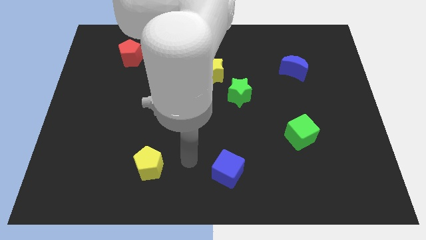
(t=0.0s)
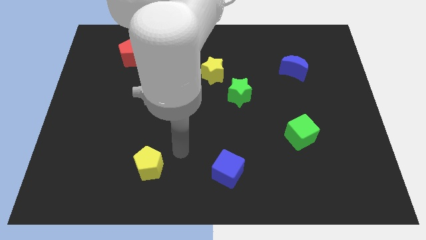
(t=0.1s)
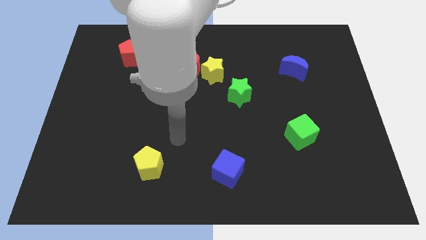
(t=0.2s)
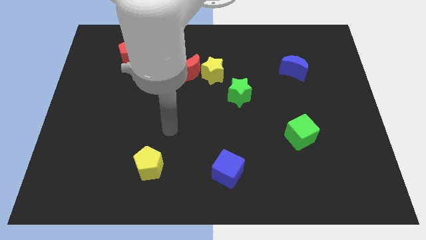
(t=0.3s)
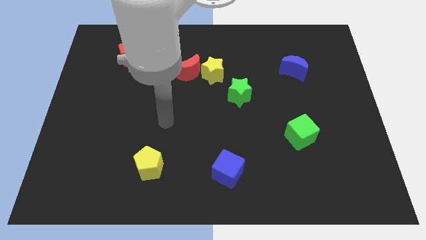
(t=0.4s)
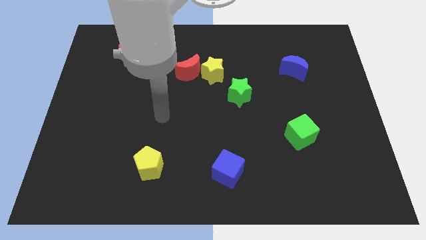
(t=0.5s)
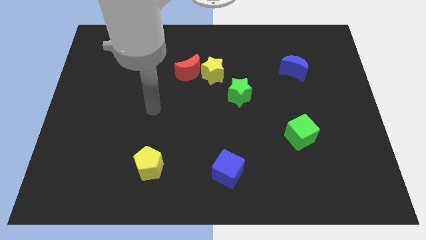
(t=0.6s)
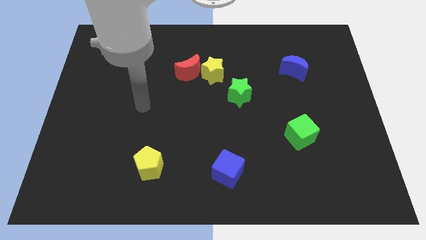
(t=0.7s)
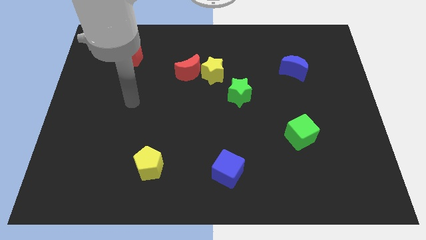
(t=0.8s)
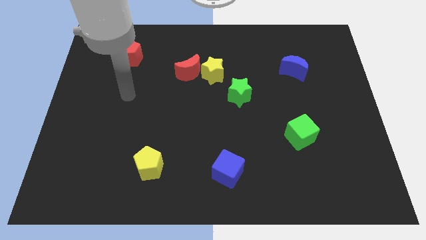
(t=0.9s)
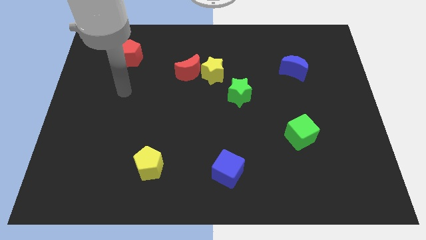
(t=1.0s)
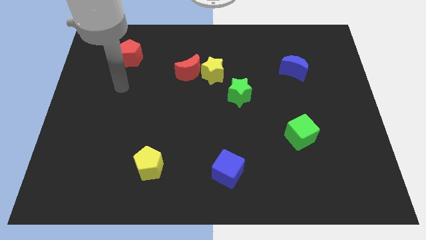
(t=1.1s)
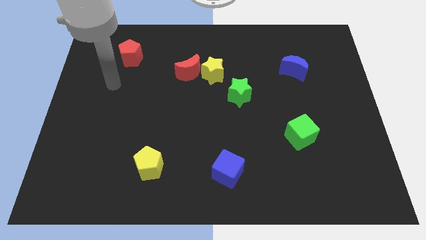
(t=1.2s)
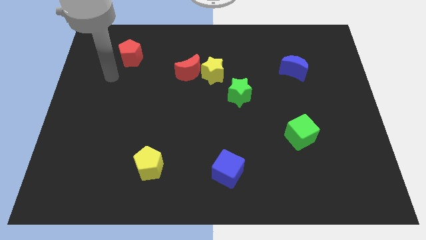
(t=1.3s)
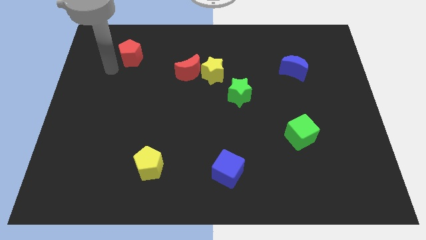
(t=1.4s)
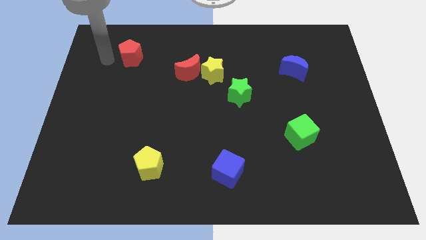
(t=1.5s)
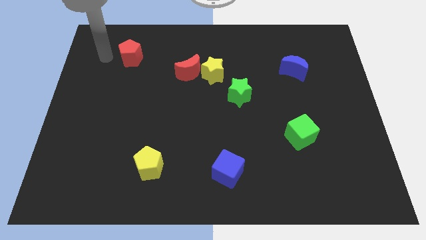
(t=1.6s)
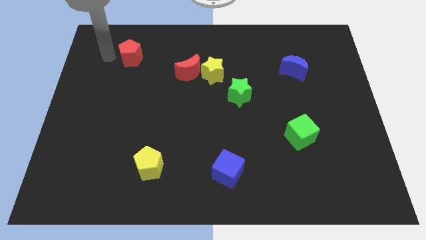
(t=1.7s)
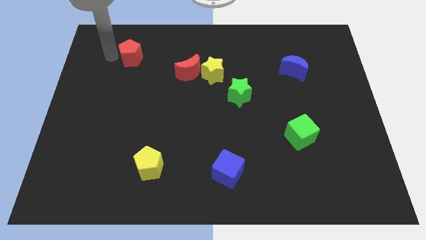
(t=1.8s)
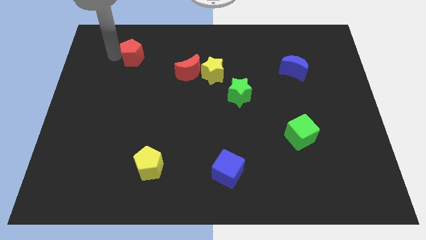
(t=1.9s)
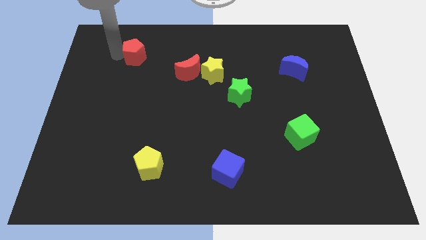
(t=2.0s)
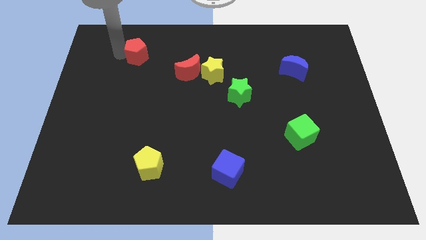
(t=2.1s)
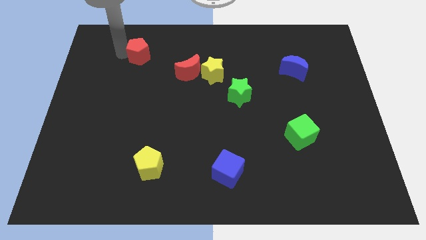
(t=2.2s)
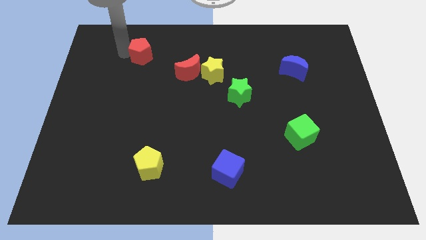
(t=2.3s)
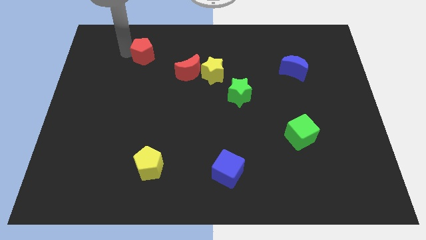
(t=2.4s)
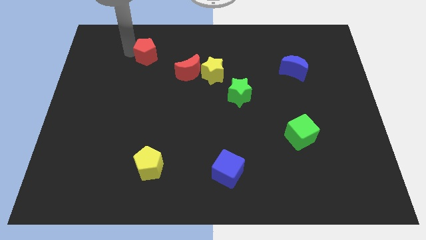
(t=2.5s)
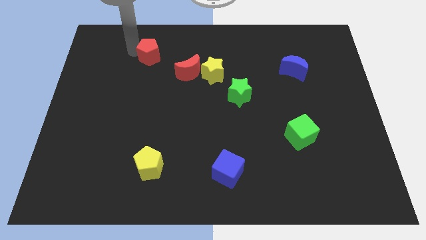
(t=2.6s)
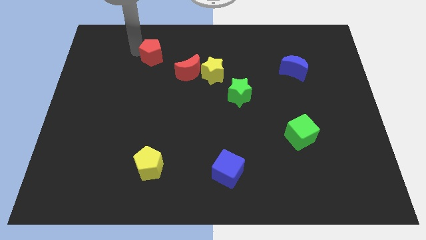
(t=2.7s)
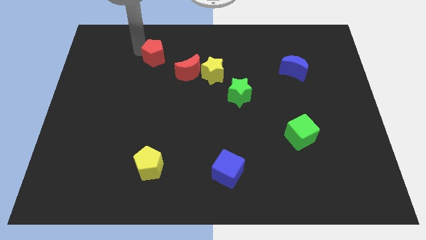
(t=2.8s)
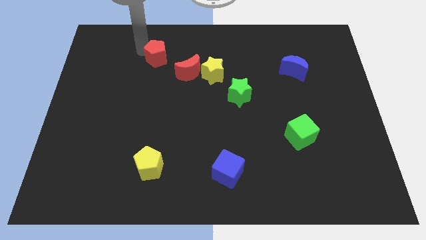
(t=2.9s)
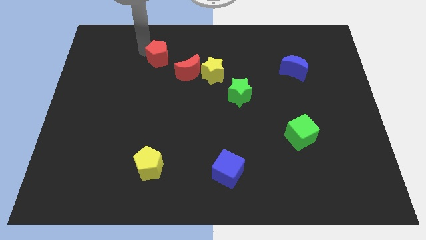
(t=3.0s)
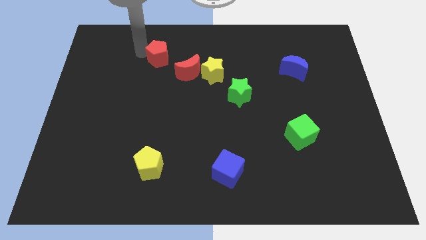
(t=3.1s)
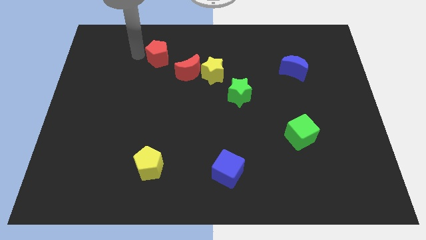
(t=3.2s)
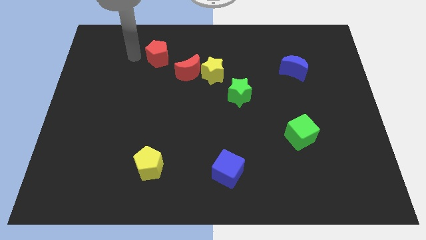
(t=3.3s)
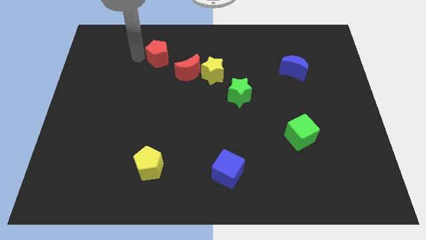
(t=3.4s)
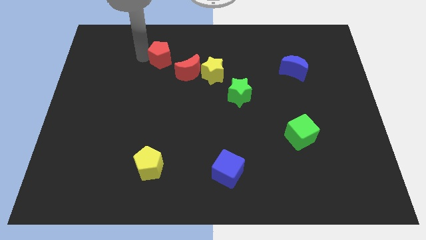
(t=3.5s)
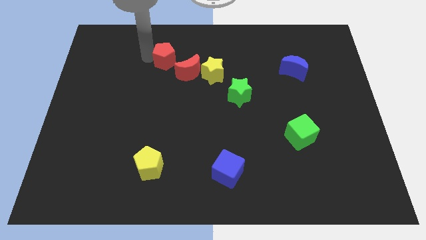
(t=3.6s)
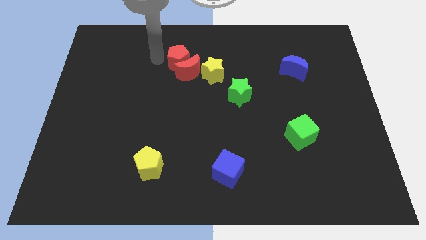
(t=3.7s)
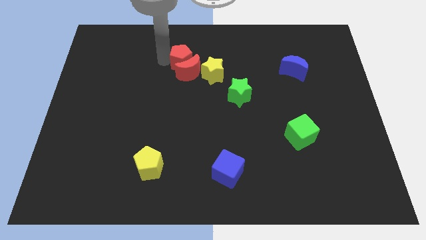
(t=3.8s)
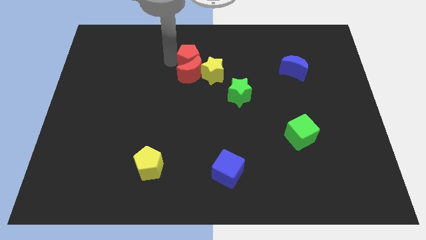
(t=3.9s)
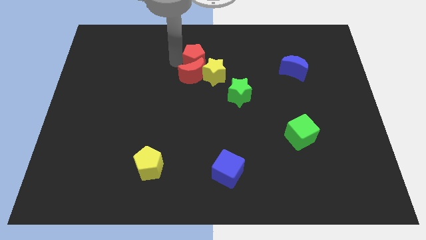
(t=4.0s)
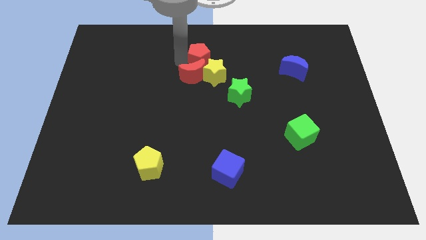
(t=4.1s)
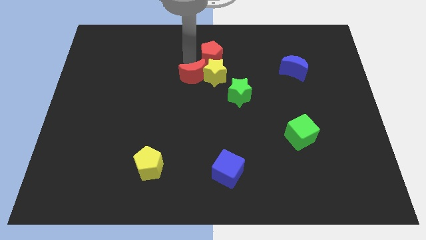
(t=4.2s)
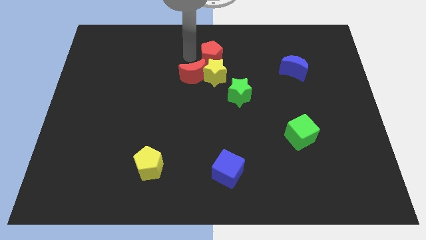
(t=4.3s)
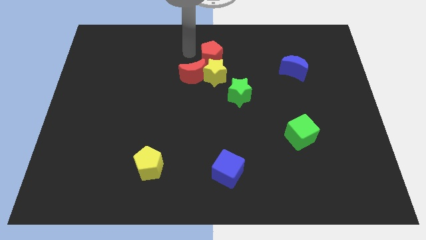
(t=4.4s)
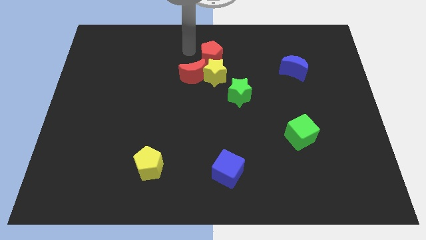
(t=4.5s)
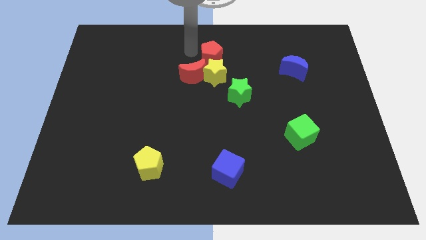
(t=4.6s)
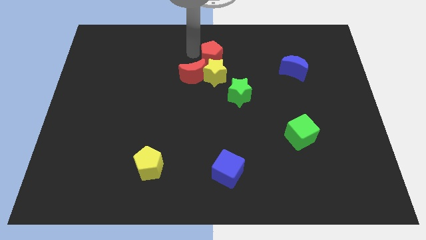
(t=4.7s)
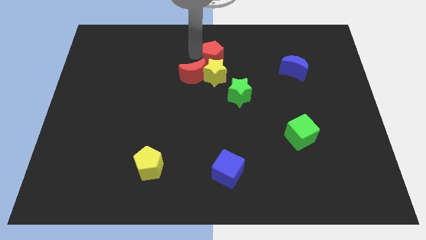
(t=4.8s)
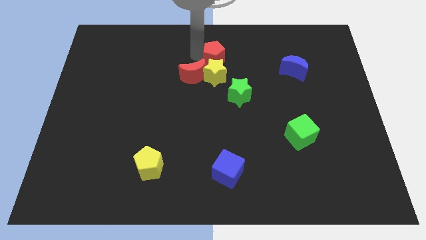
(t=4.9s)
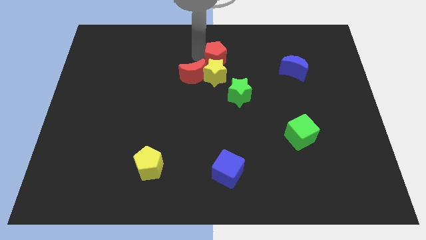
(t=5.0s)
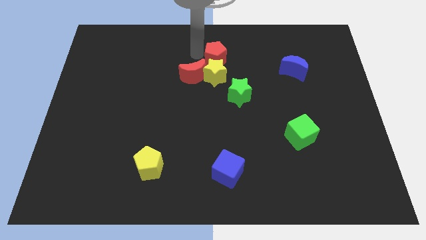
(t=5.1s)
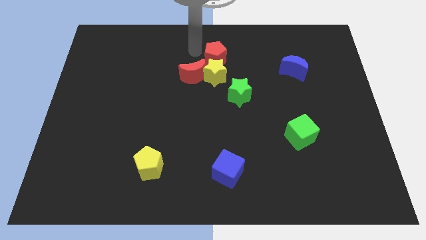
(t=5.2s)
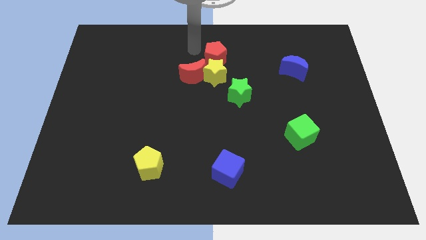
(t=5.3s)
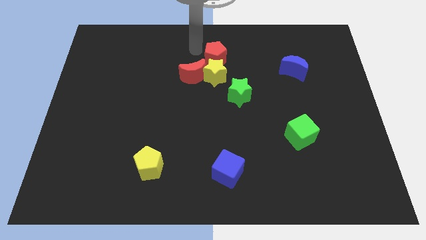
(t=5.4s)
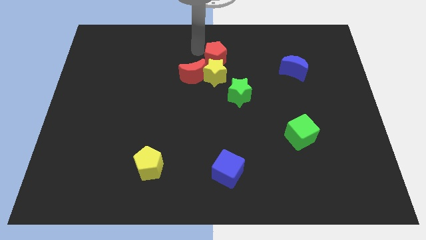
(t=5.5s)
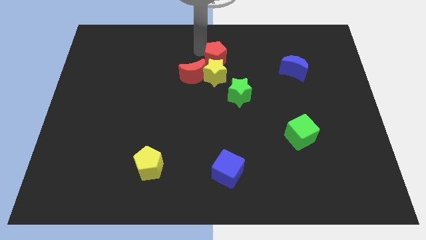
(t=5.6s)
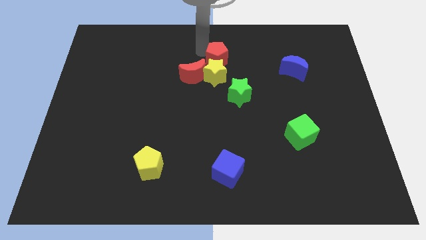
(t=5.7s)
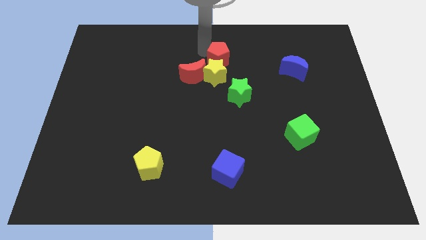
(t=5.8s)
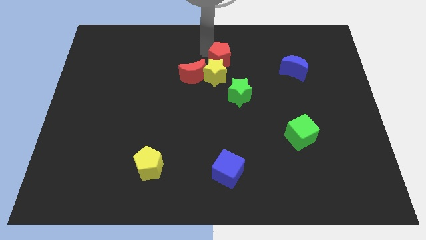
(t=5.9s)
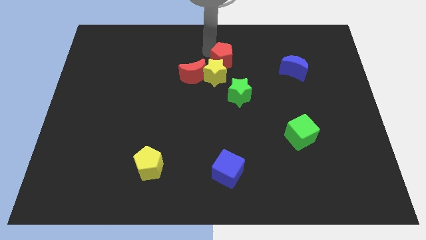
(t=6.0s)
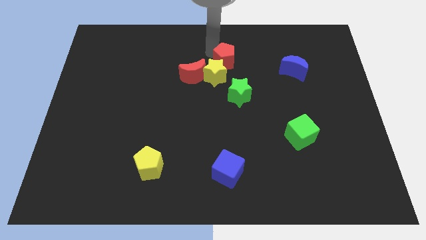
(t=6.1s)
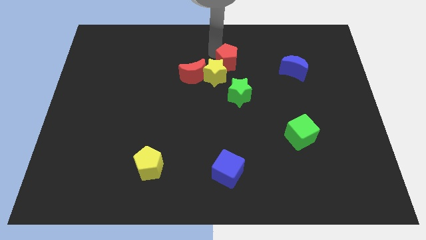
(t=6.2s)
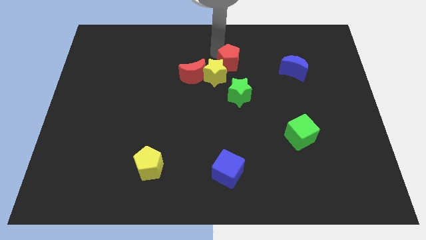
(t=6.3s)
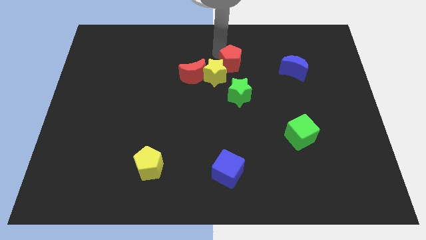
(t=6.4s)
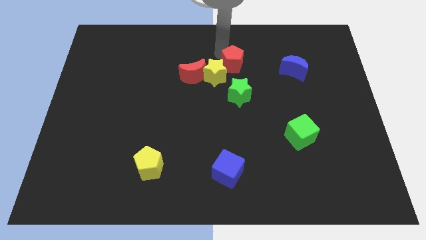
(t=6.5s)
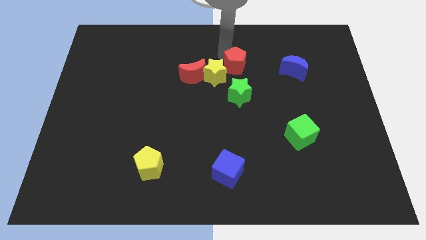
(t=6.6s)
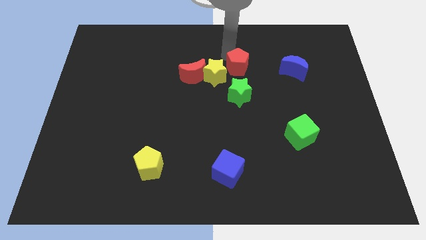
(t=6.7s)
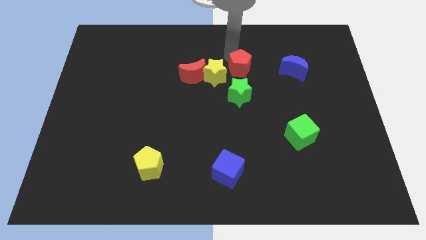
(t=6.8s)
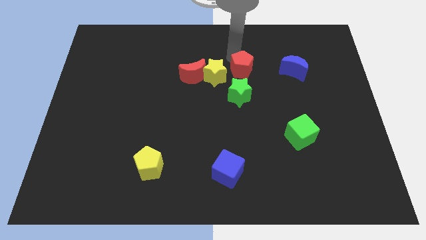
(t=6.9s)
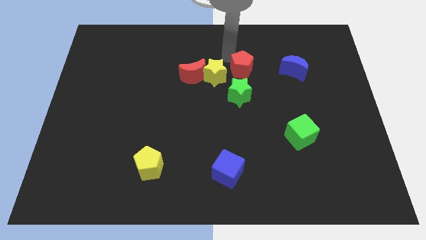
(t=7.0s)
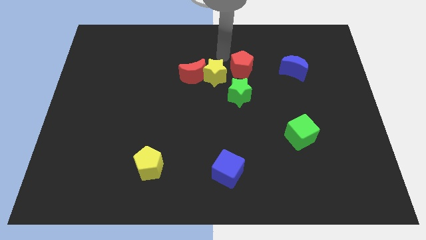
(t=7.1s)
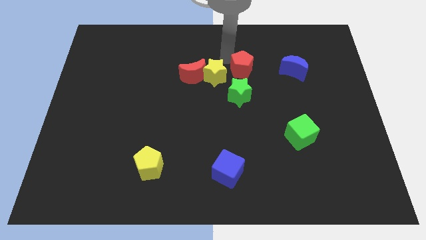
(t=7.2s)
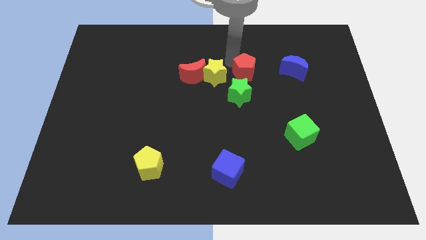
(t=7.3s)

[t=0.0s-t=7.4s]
put the red pentagon to the top right side of the green star

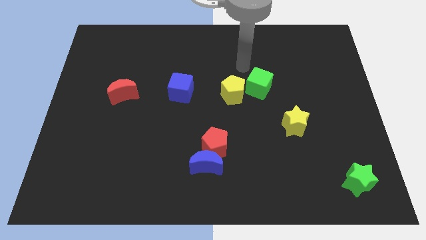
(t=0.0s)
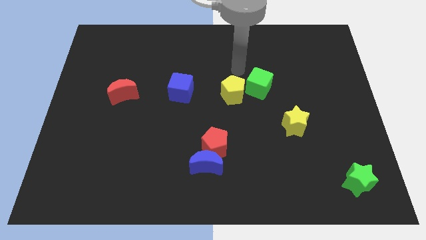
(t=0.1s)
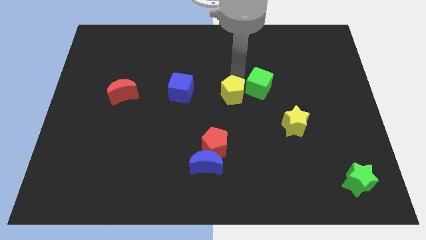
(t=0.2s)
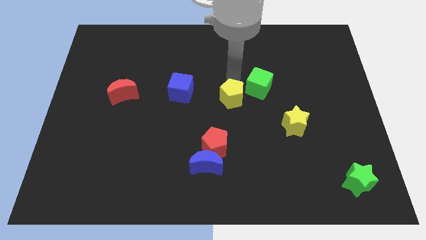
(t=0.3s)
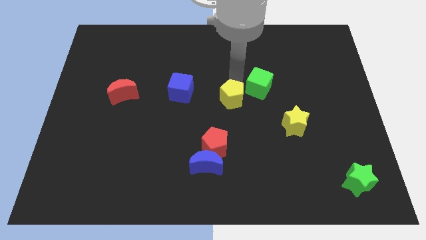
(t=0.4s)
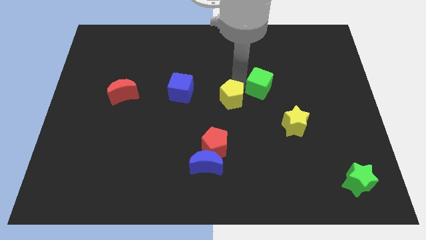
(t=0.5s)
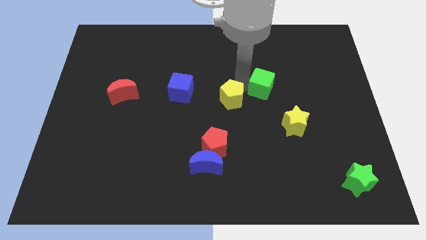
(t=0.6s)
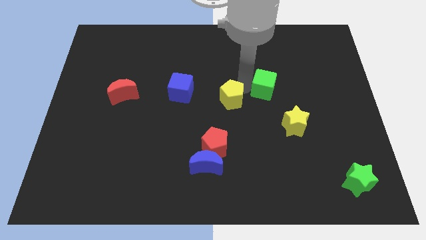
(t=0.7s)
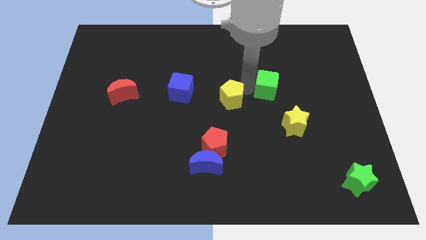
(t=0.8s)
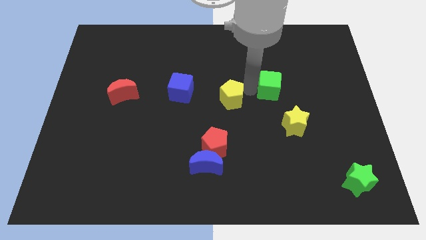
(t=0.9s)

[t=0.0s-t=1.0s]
slide the green cube to the top of the yellow star
